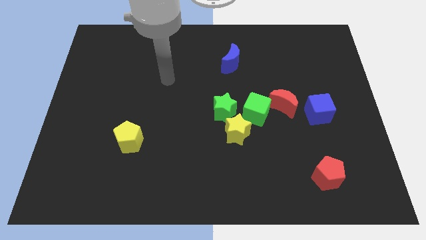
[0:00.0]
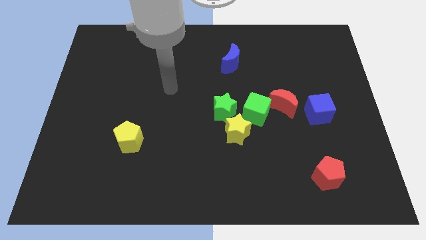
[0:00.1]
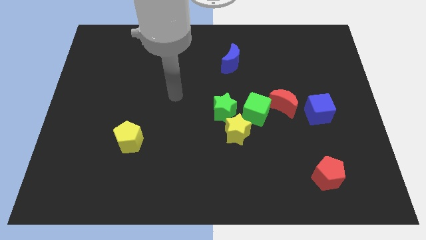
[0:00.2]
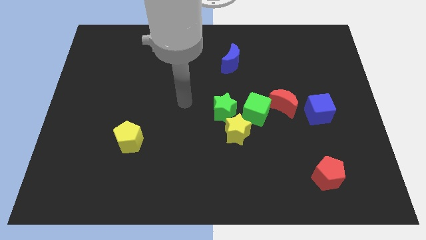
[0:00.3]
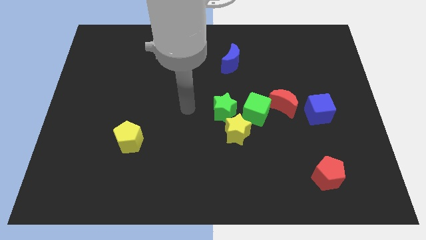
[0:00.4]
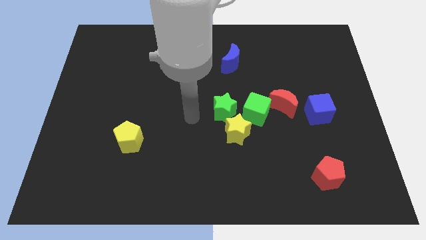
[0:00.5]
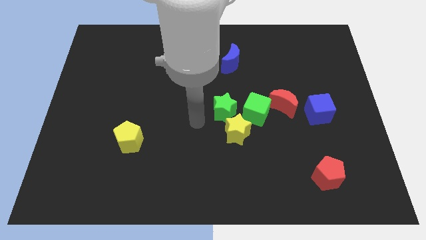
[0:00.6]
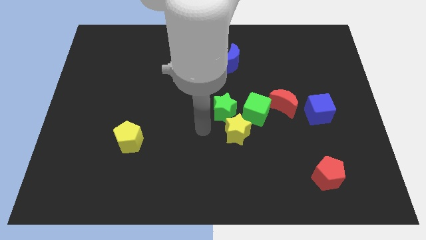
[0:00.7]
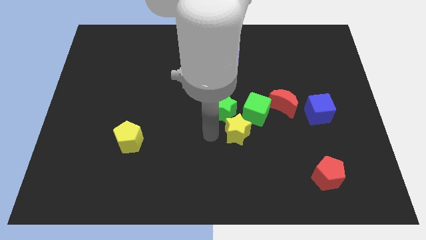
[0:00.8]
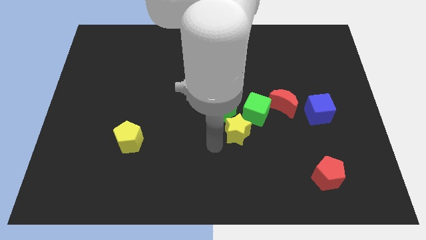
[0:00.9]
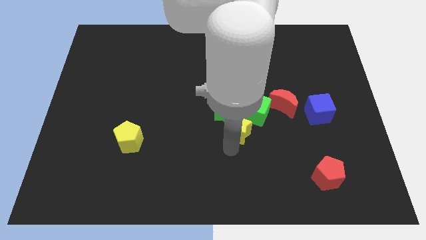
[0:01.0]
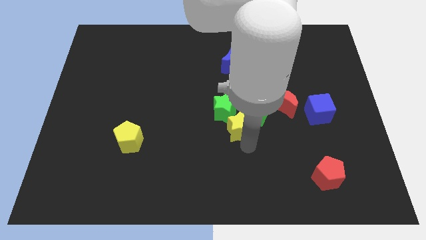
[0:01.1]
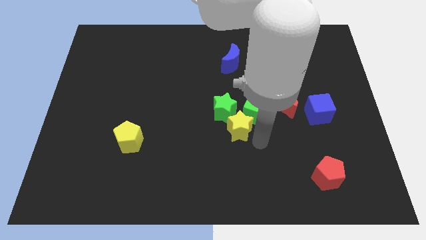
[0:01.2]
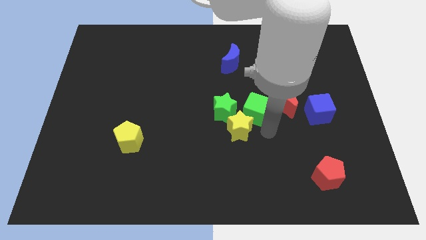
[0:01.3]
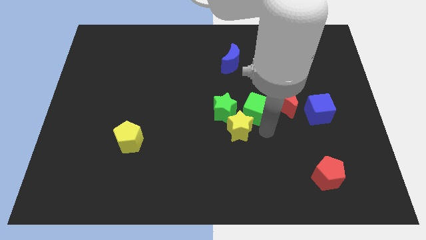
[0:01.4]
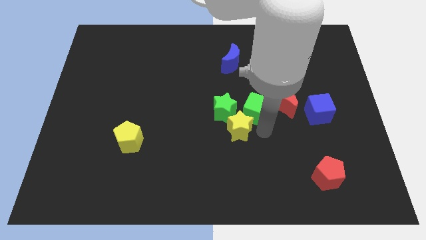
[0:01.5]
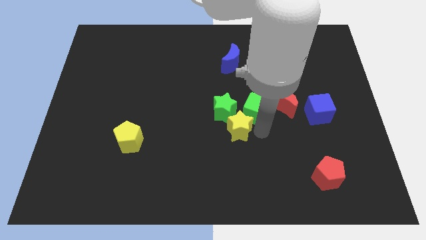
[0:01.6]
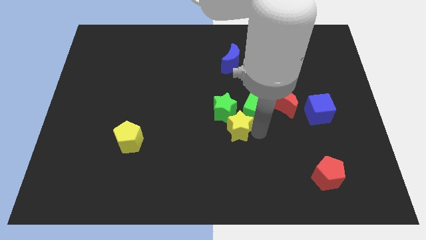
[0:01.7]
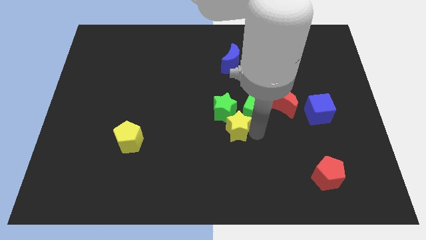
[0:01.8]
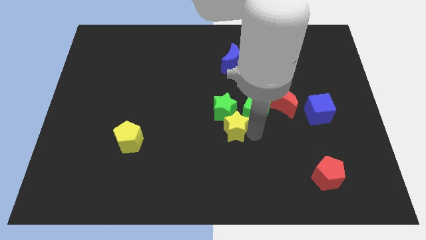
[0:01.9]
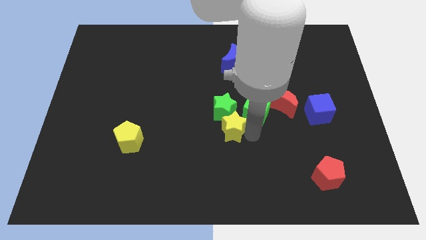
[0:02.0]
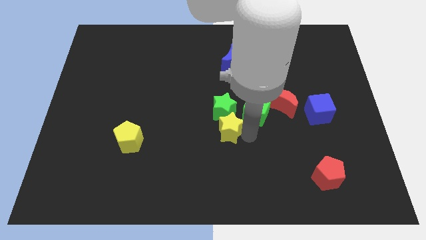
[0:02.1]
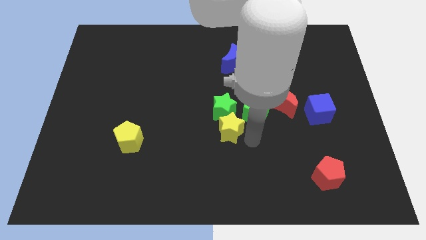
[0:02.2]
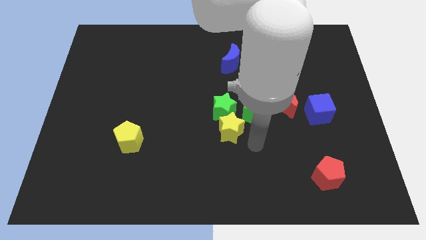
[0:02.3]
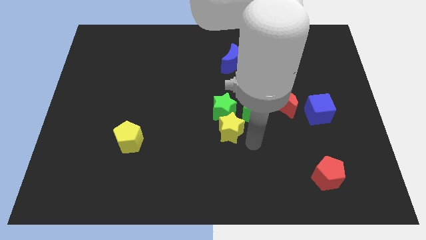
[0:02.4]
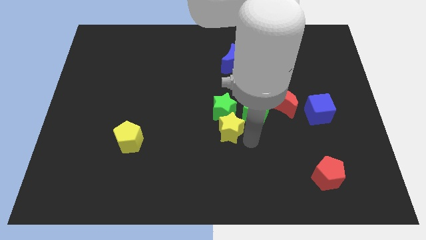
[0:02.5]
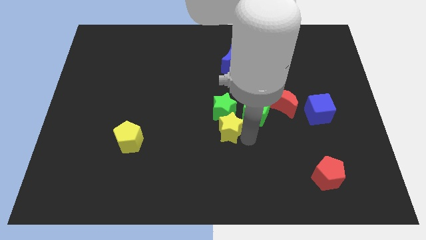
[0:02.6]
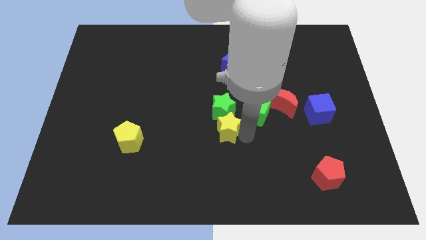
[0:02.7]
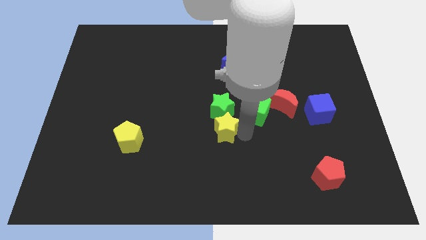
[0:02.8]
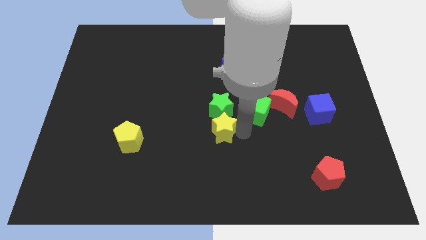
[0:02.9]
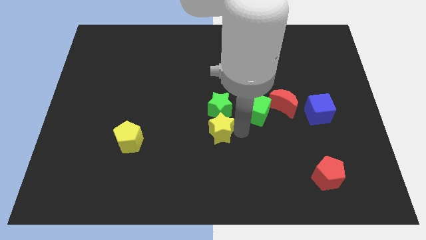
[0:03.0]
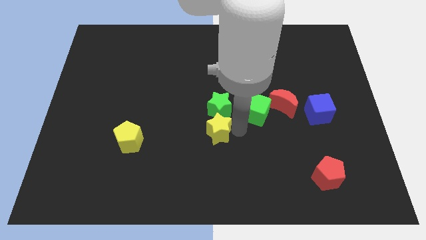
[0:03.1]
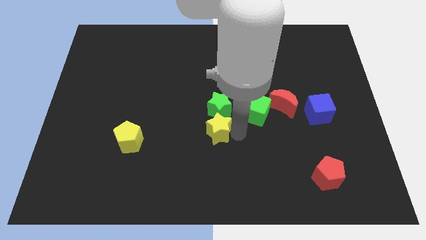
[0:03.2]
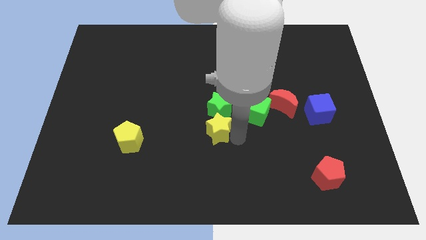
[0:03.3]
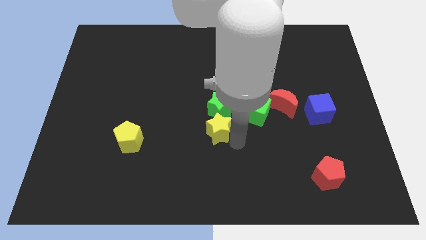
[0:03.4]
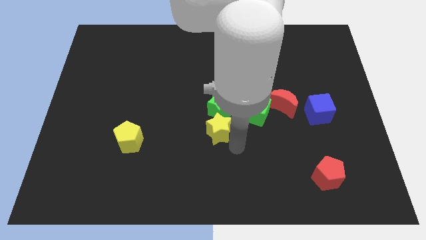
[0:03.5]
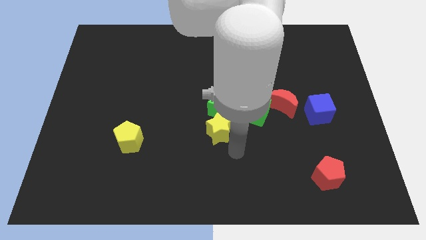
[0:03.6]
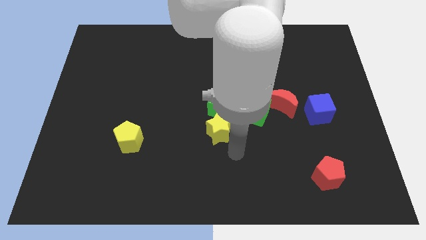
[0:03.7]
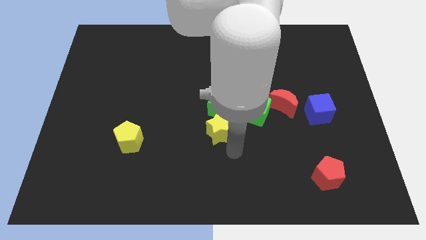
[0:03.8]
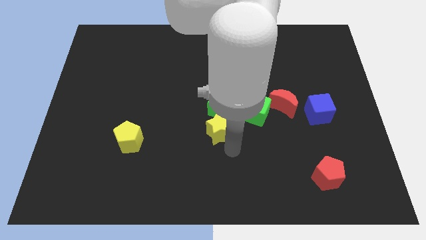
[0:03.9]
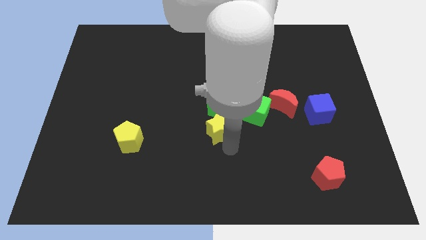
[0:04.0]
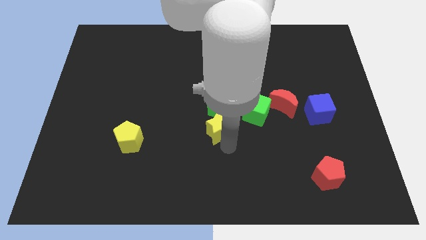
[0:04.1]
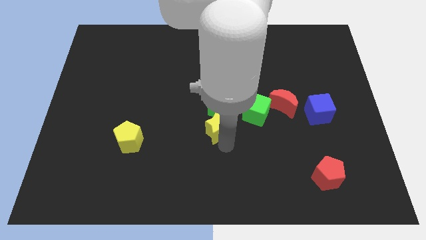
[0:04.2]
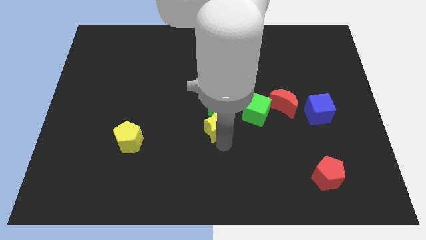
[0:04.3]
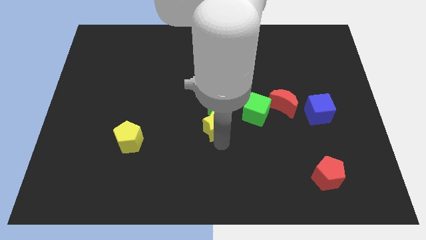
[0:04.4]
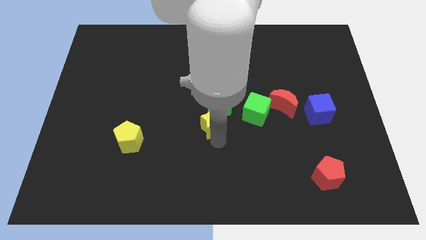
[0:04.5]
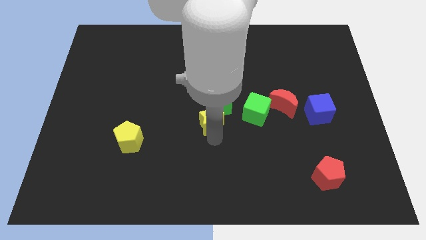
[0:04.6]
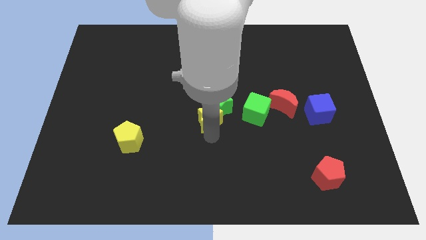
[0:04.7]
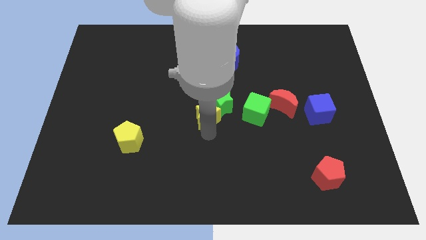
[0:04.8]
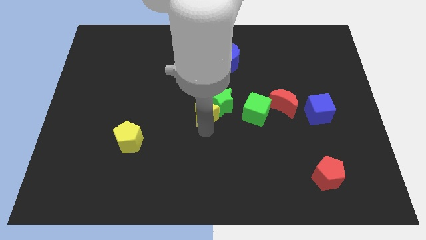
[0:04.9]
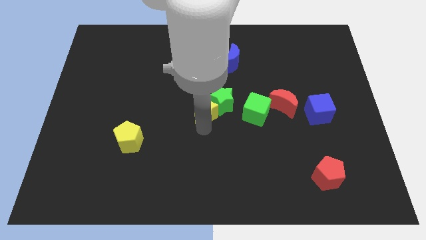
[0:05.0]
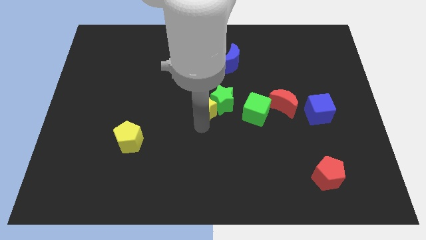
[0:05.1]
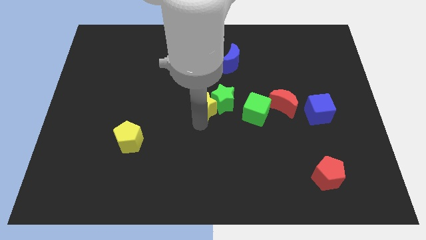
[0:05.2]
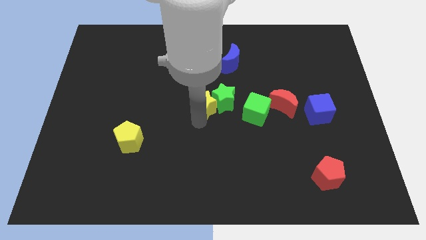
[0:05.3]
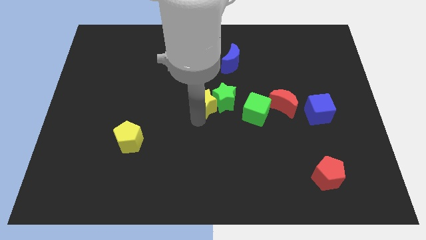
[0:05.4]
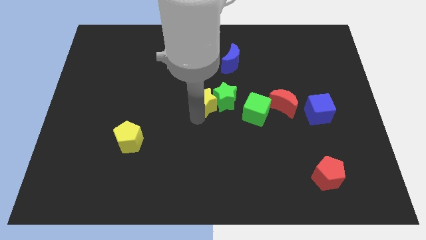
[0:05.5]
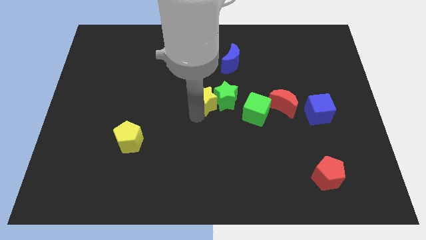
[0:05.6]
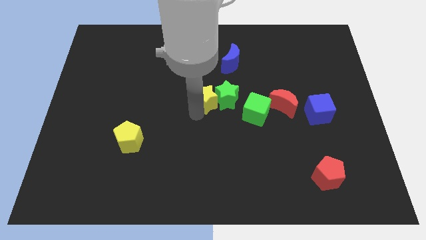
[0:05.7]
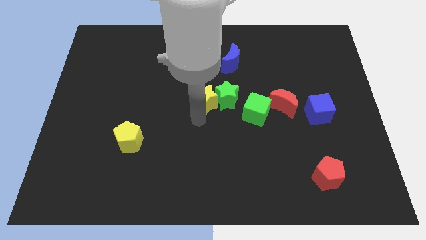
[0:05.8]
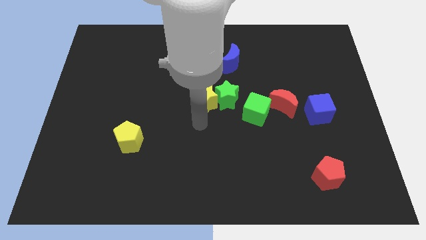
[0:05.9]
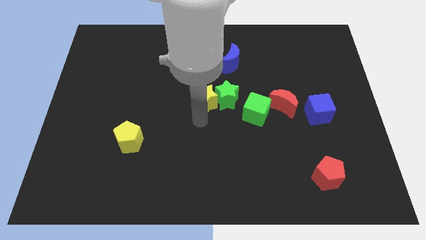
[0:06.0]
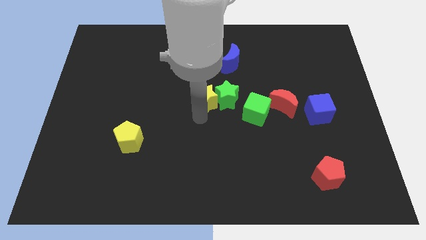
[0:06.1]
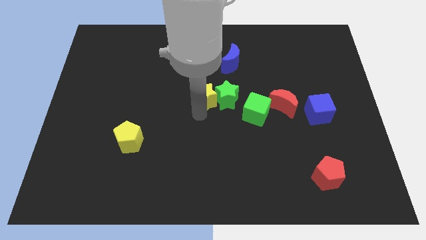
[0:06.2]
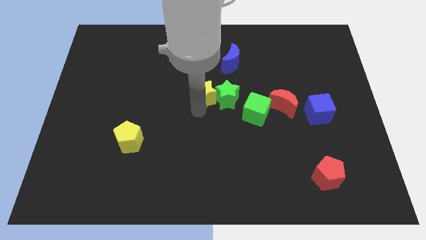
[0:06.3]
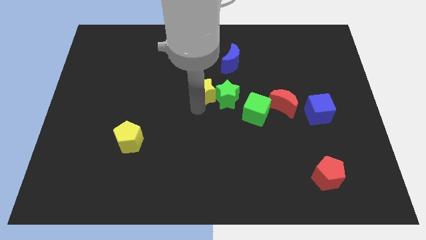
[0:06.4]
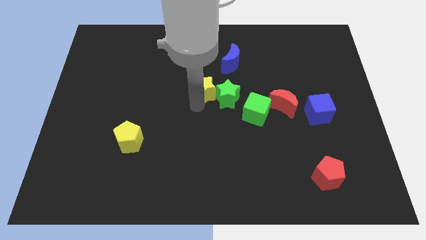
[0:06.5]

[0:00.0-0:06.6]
push the yellow star to the bottom left side of the blue moon

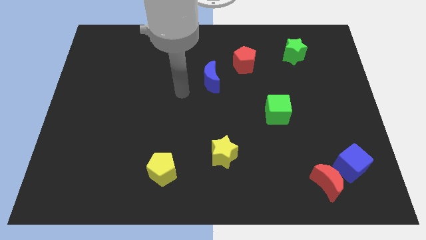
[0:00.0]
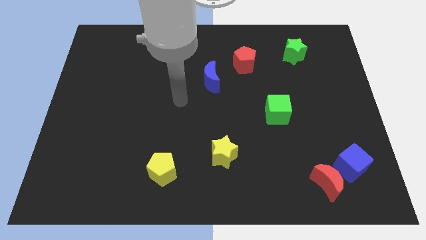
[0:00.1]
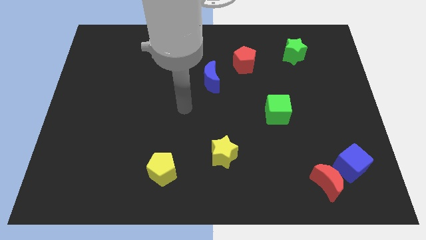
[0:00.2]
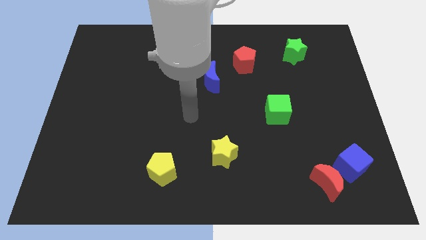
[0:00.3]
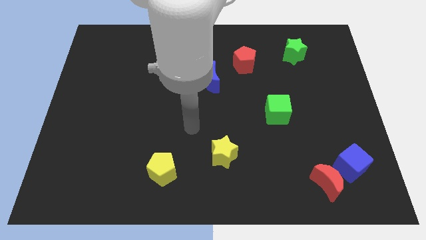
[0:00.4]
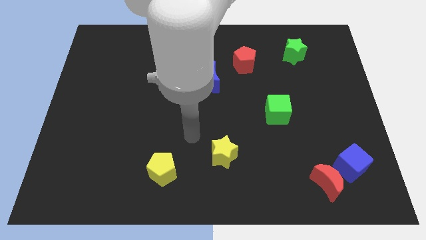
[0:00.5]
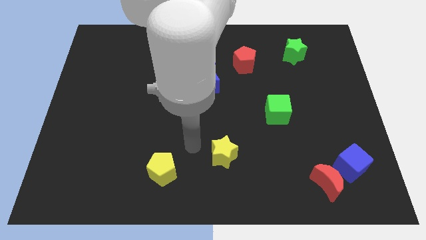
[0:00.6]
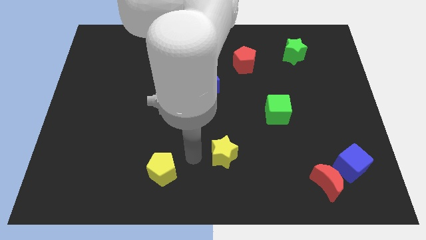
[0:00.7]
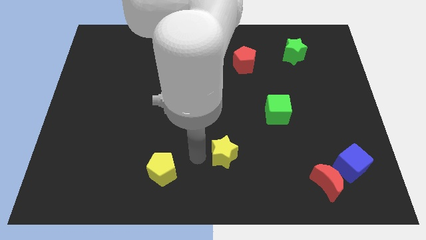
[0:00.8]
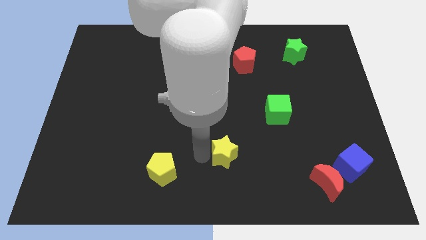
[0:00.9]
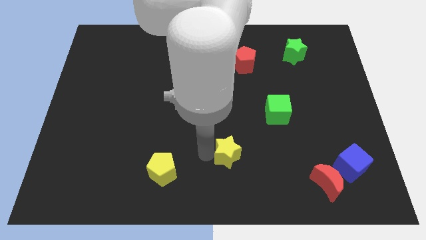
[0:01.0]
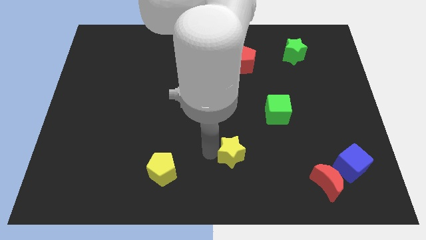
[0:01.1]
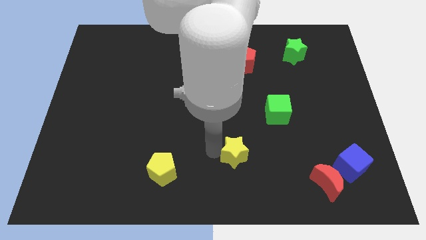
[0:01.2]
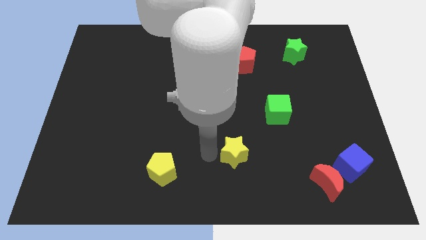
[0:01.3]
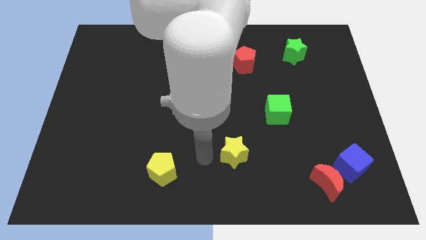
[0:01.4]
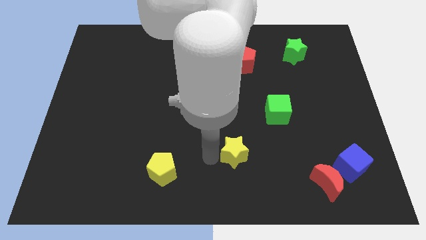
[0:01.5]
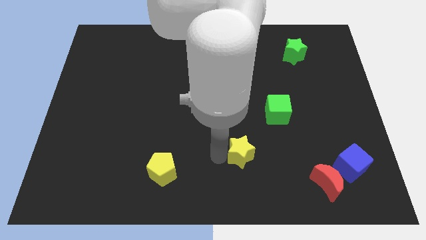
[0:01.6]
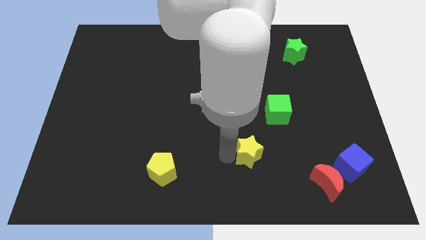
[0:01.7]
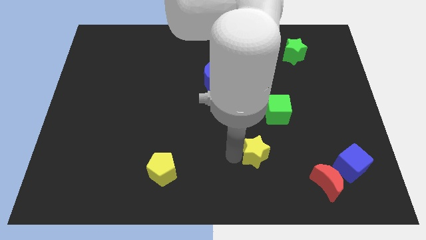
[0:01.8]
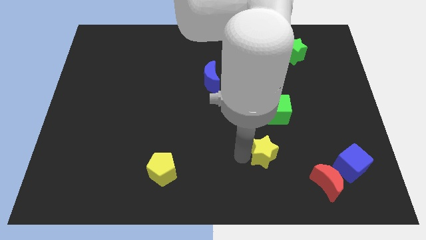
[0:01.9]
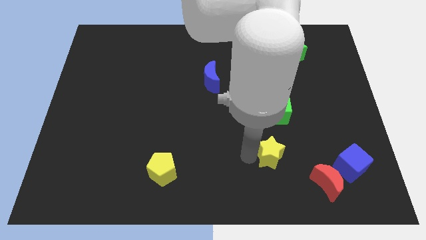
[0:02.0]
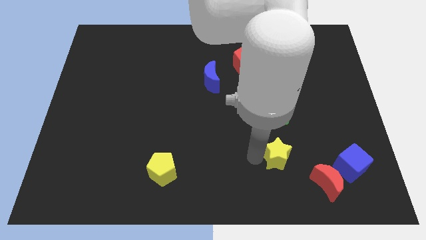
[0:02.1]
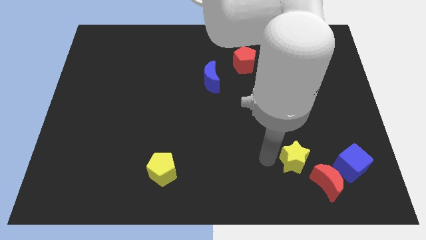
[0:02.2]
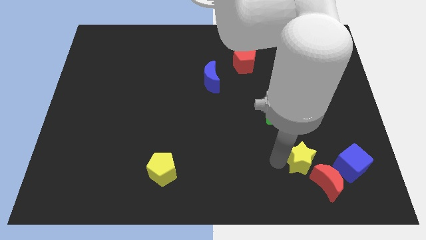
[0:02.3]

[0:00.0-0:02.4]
slide the yellow star above the red moon
